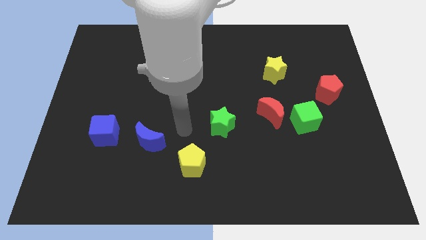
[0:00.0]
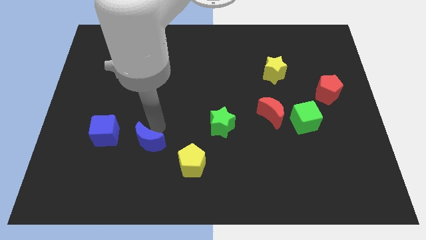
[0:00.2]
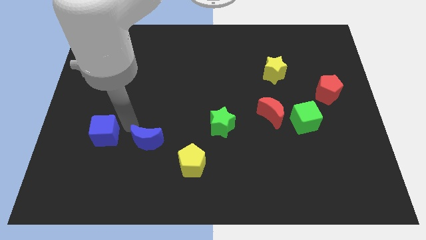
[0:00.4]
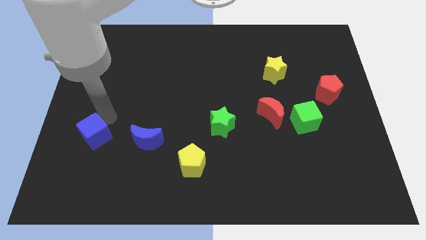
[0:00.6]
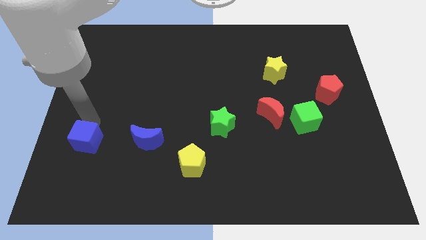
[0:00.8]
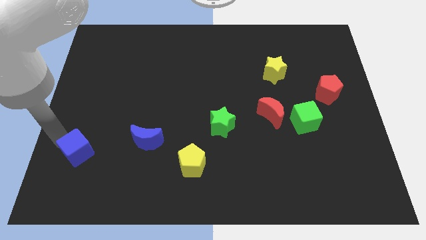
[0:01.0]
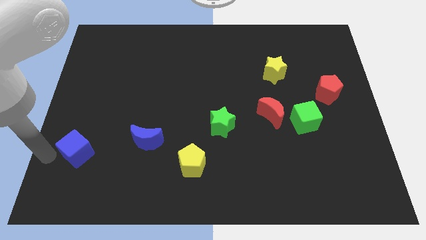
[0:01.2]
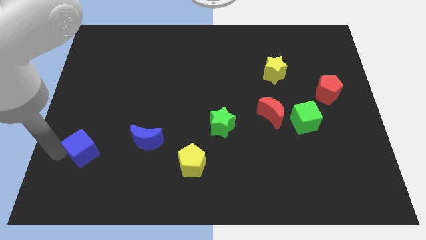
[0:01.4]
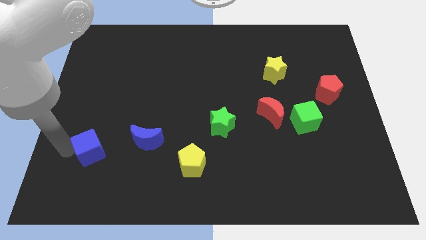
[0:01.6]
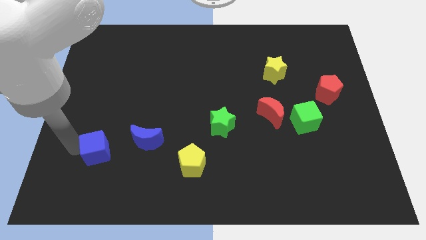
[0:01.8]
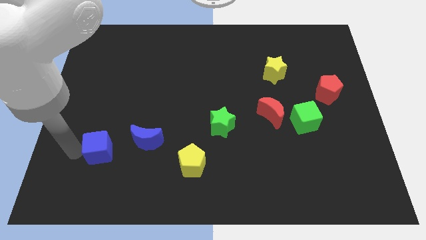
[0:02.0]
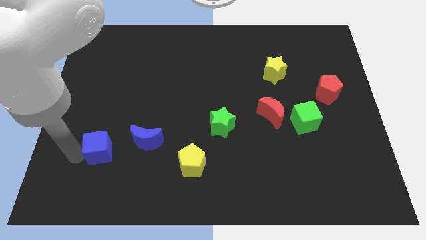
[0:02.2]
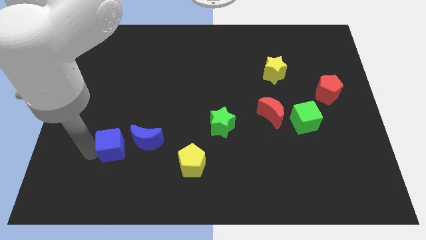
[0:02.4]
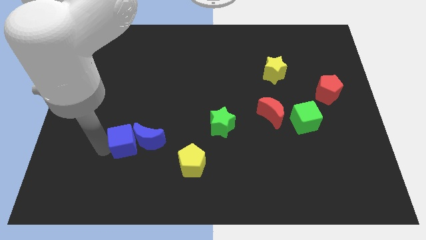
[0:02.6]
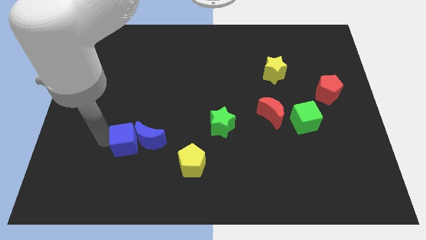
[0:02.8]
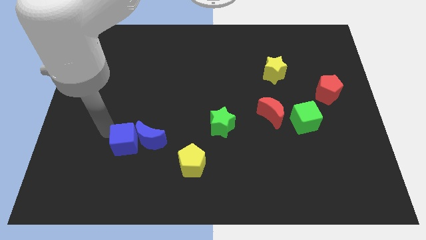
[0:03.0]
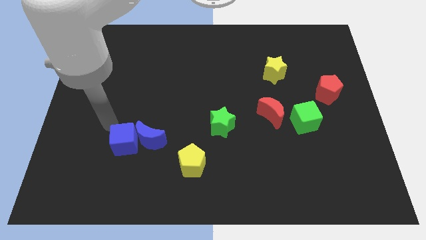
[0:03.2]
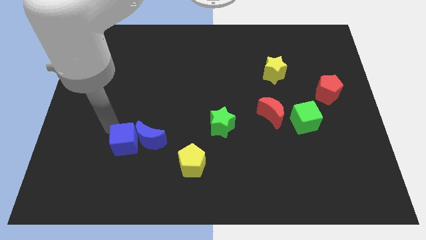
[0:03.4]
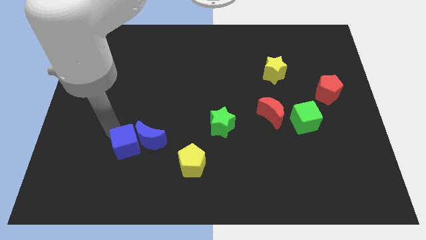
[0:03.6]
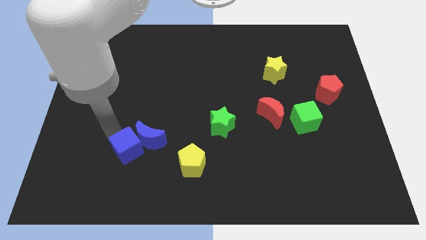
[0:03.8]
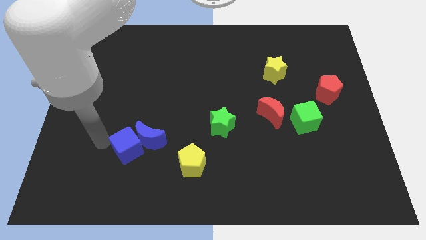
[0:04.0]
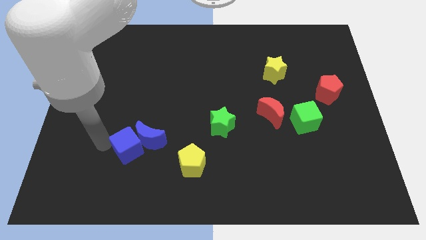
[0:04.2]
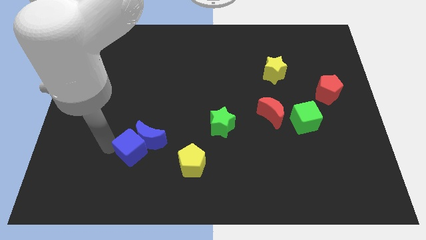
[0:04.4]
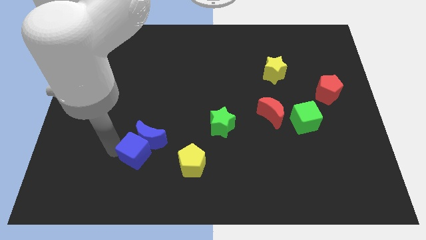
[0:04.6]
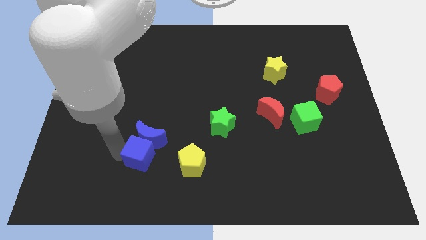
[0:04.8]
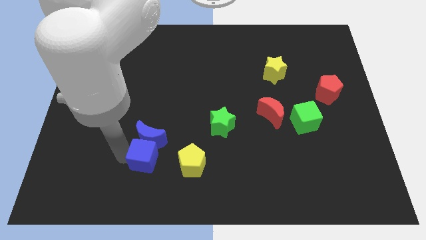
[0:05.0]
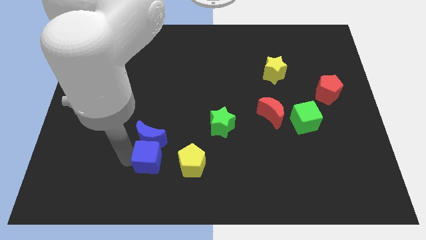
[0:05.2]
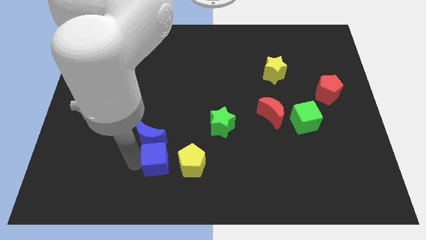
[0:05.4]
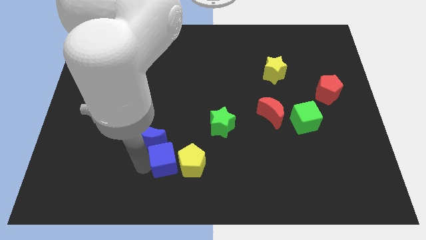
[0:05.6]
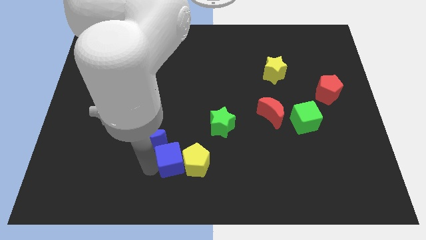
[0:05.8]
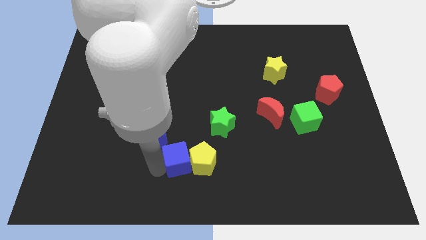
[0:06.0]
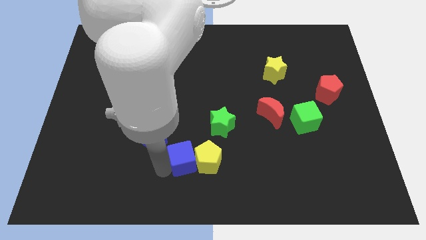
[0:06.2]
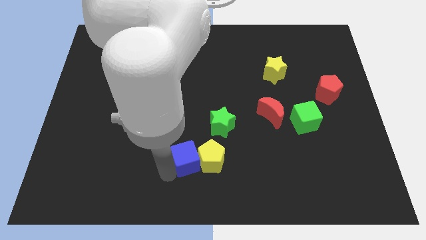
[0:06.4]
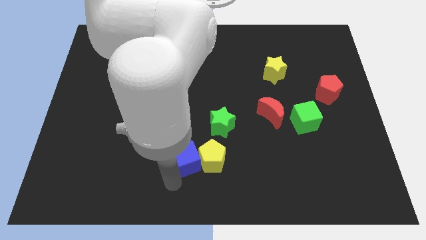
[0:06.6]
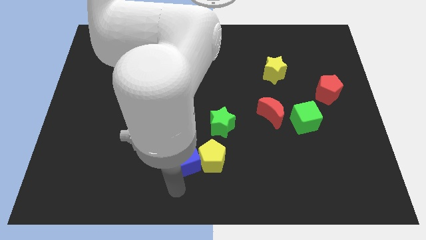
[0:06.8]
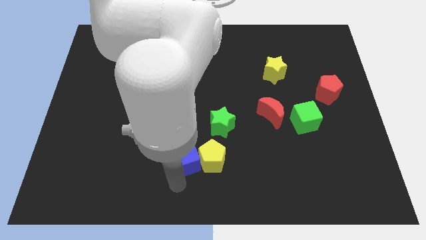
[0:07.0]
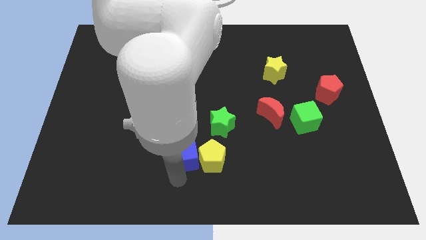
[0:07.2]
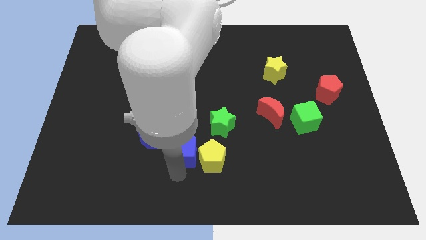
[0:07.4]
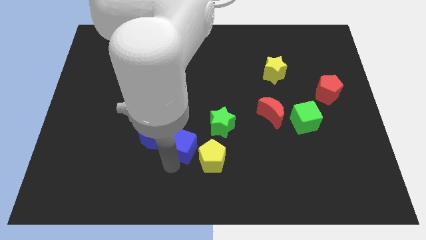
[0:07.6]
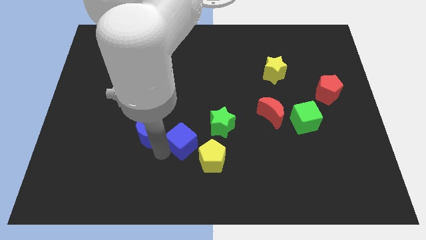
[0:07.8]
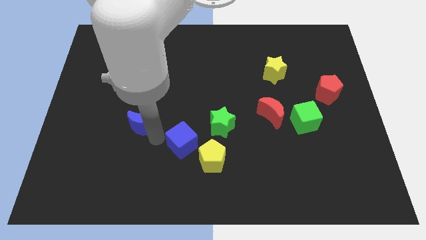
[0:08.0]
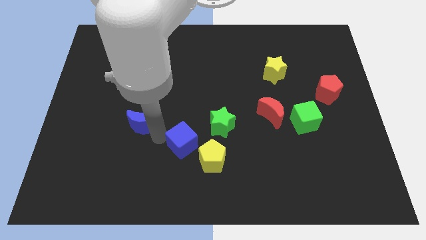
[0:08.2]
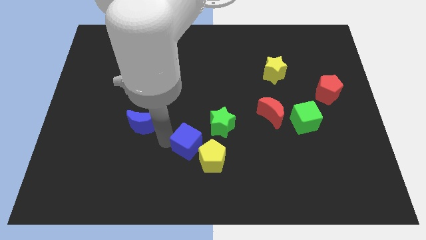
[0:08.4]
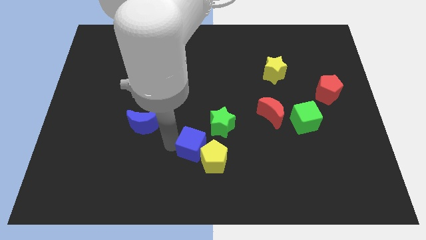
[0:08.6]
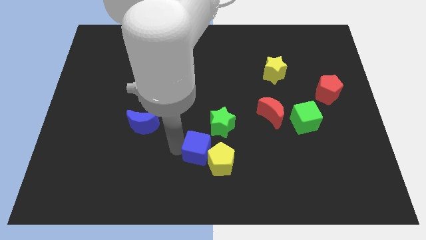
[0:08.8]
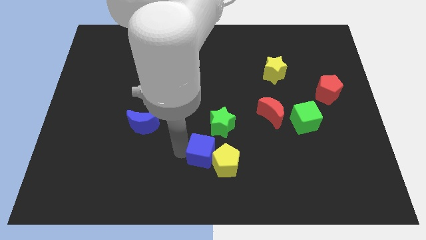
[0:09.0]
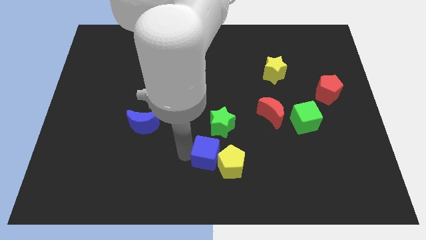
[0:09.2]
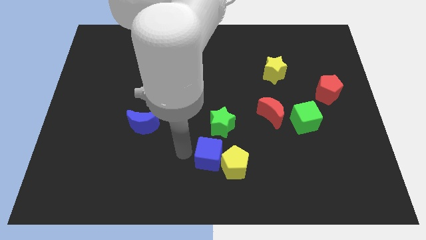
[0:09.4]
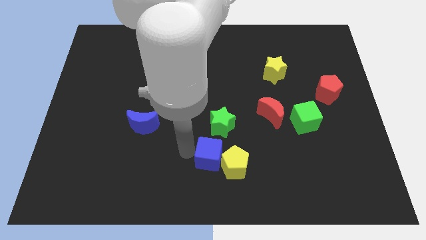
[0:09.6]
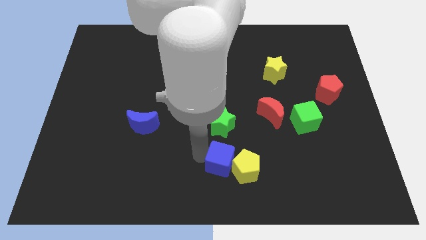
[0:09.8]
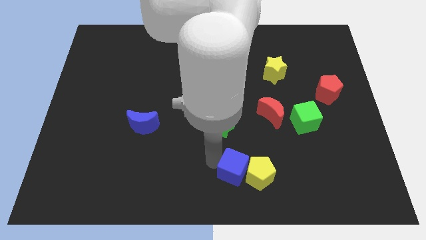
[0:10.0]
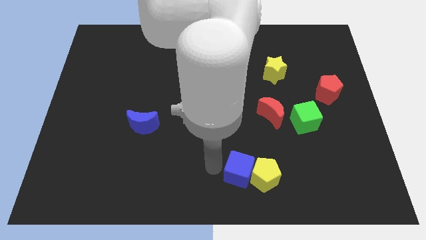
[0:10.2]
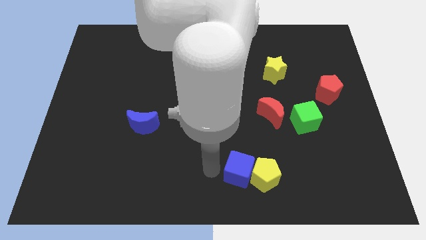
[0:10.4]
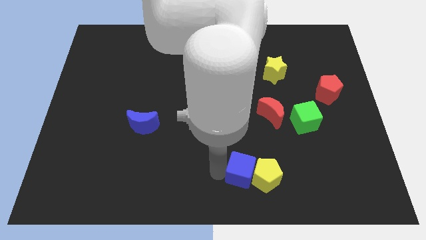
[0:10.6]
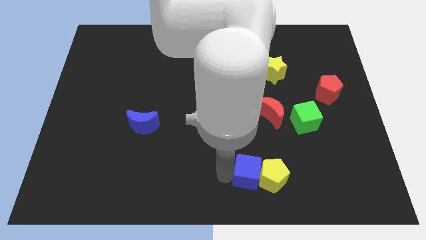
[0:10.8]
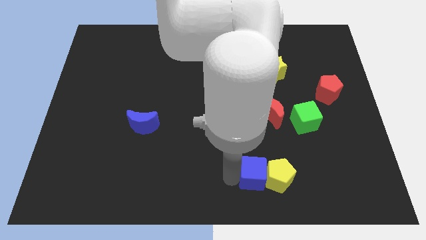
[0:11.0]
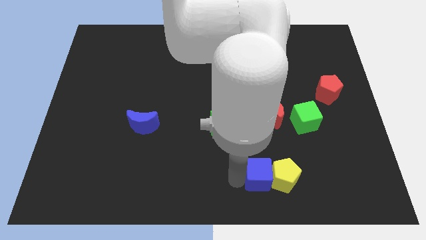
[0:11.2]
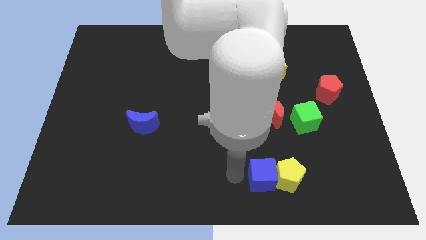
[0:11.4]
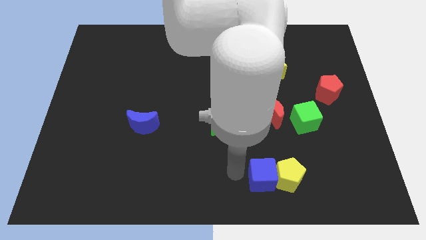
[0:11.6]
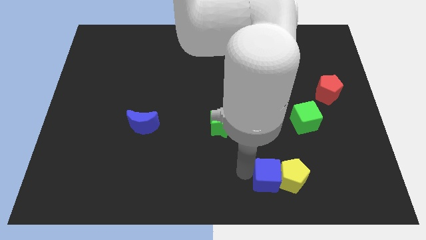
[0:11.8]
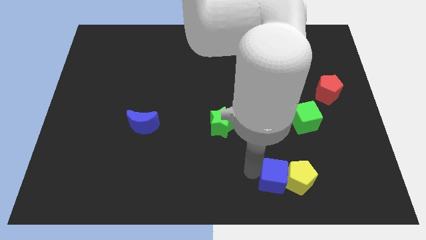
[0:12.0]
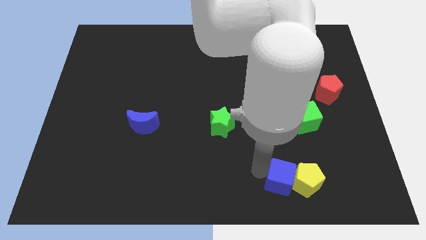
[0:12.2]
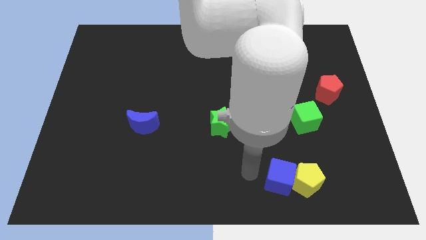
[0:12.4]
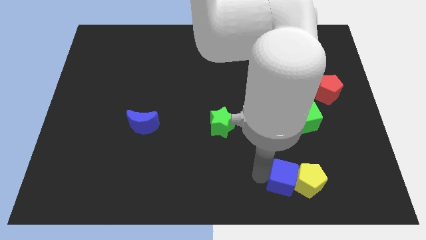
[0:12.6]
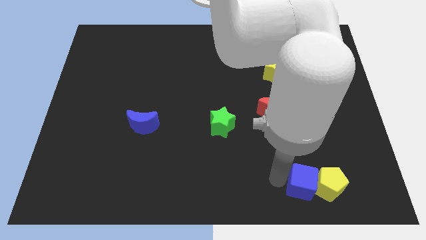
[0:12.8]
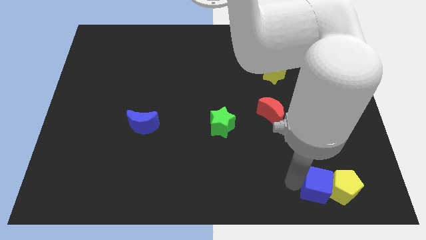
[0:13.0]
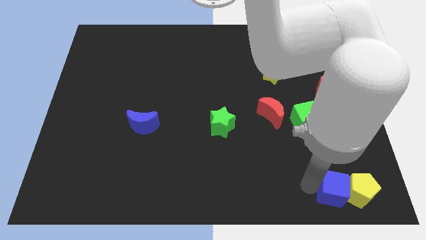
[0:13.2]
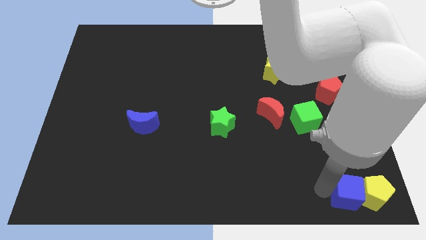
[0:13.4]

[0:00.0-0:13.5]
slide the blue cube to the bottom right of the board

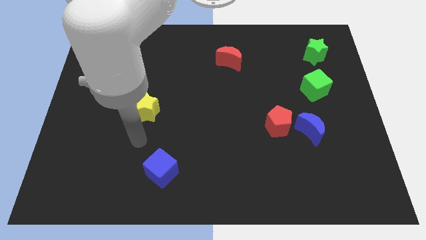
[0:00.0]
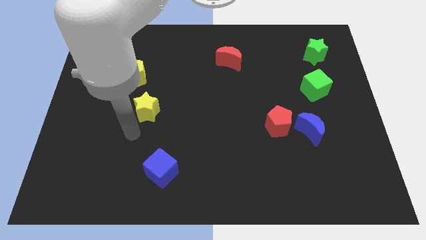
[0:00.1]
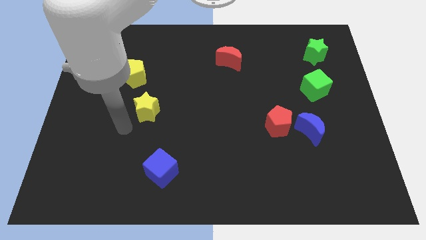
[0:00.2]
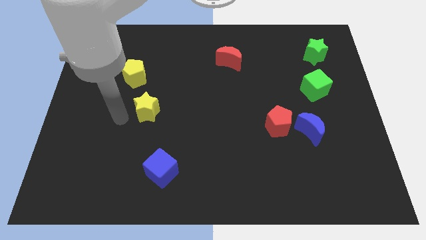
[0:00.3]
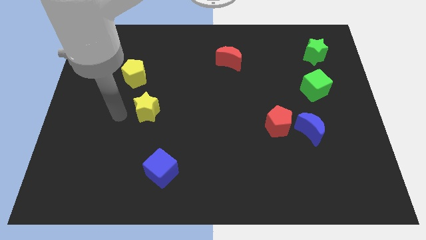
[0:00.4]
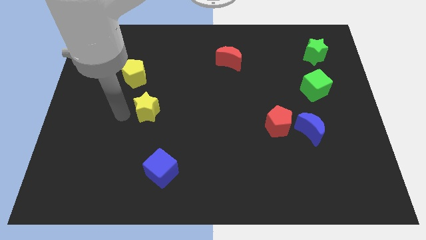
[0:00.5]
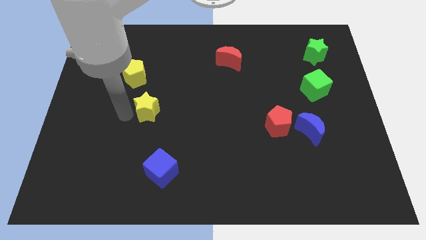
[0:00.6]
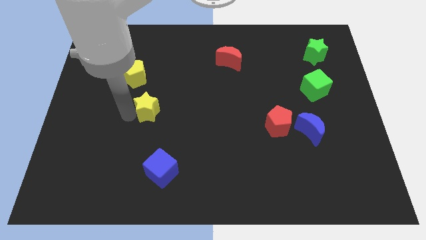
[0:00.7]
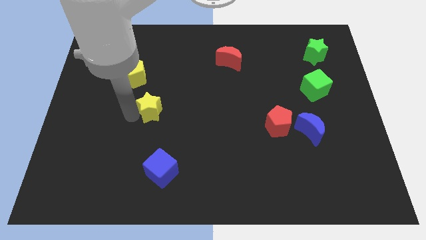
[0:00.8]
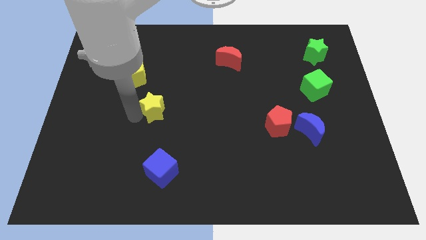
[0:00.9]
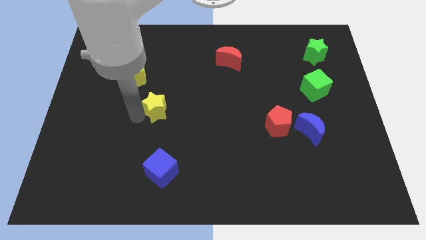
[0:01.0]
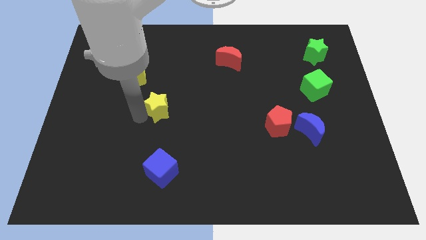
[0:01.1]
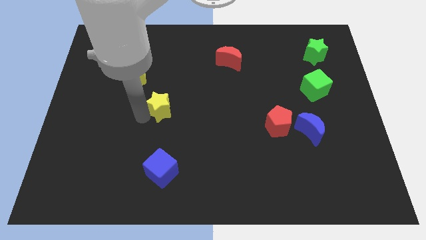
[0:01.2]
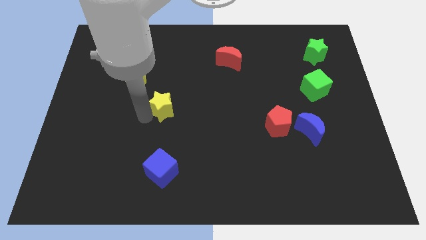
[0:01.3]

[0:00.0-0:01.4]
push the yellow star to the center
